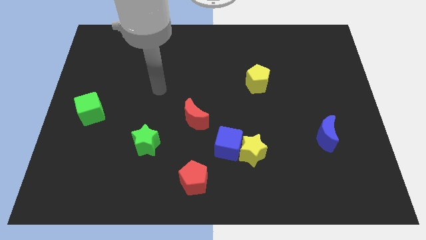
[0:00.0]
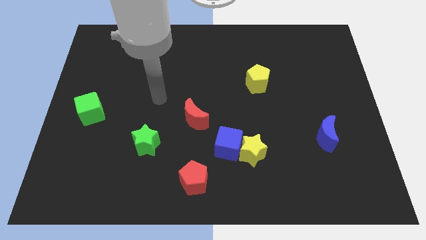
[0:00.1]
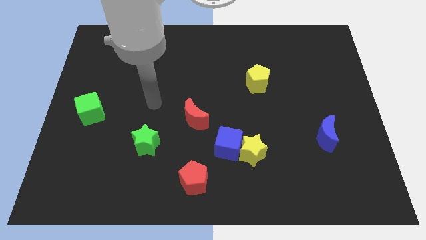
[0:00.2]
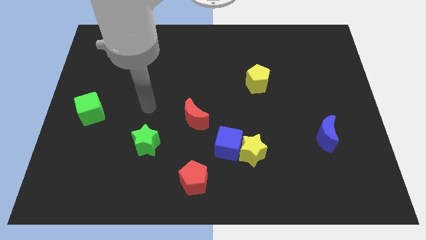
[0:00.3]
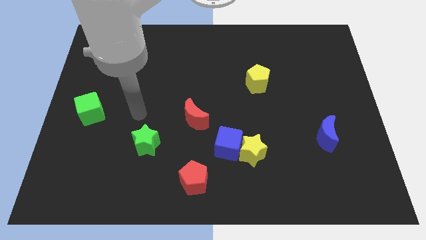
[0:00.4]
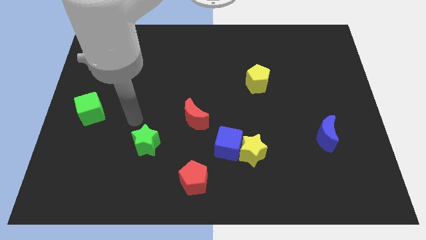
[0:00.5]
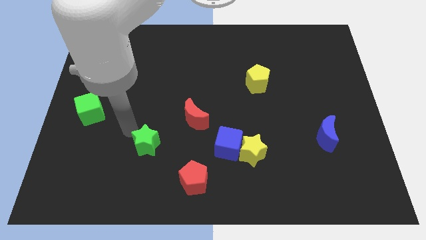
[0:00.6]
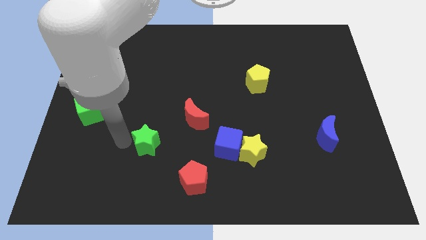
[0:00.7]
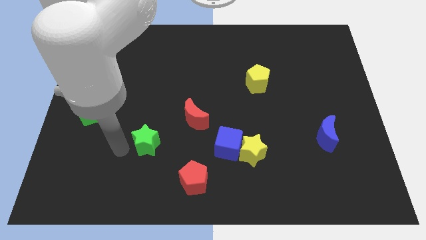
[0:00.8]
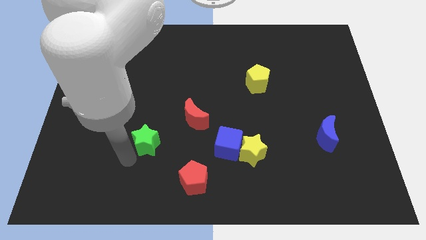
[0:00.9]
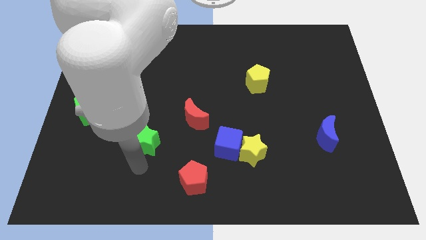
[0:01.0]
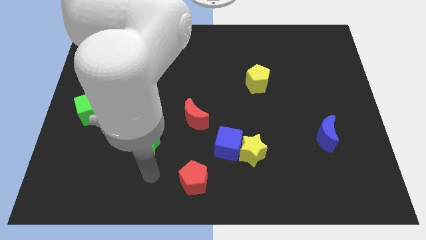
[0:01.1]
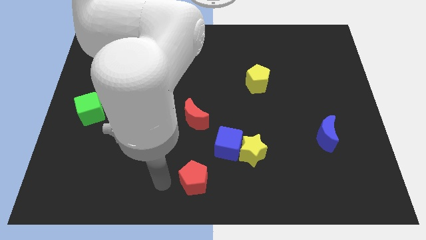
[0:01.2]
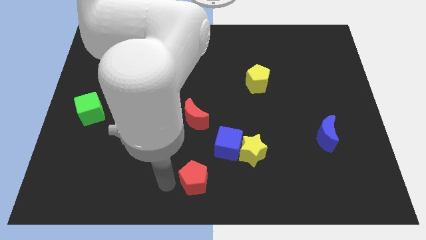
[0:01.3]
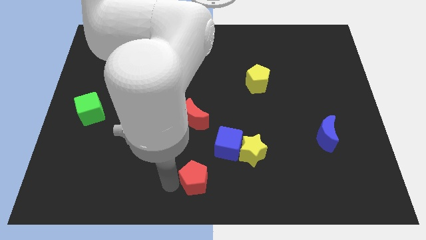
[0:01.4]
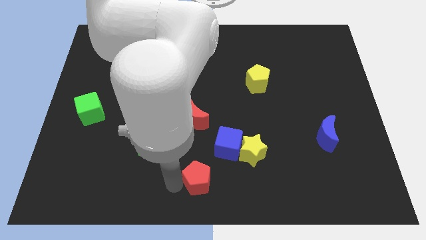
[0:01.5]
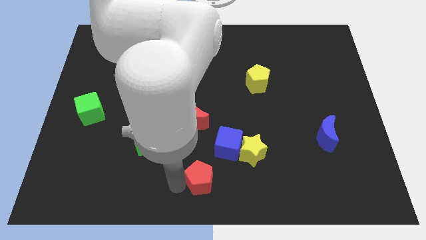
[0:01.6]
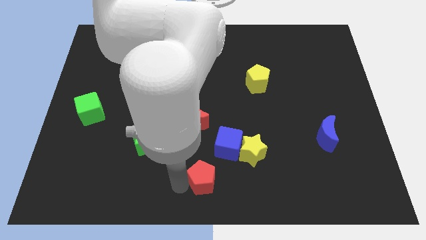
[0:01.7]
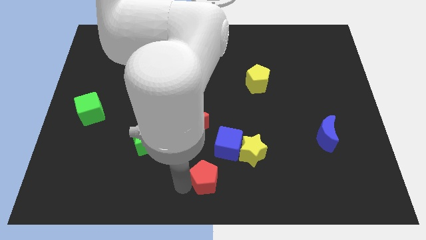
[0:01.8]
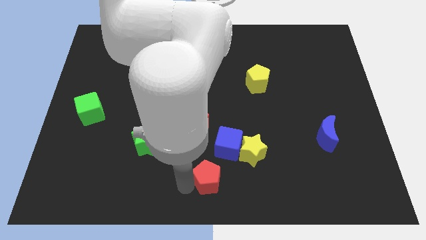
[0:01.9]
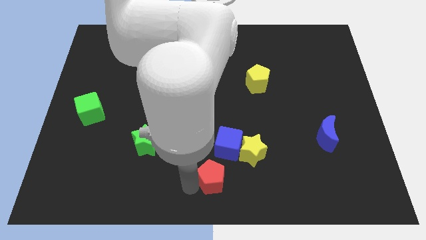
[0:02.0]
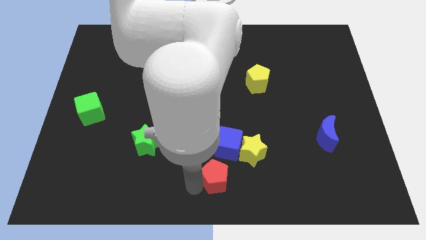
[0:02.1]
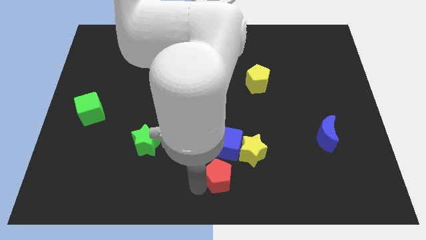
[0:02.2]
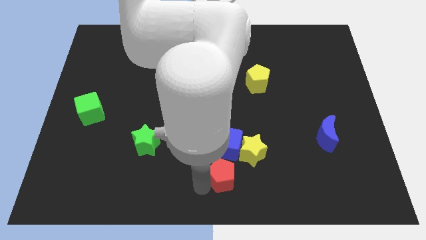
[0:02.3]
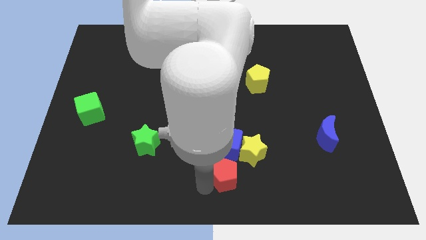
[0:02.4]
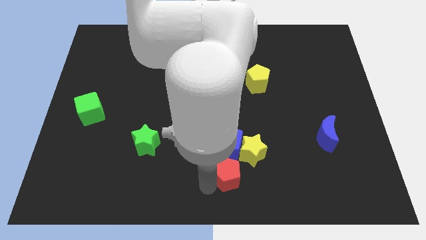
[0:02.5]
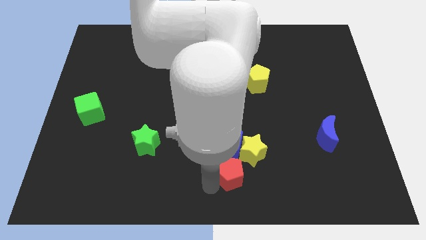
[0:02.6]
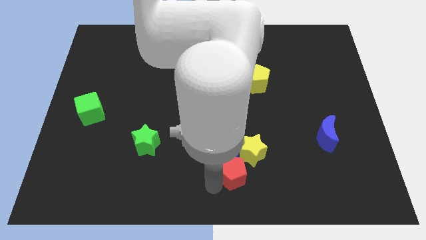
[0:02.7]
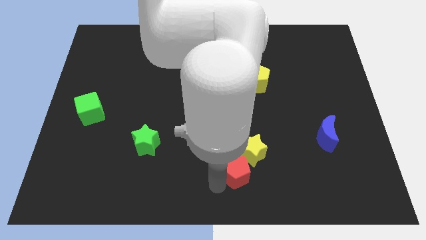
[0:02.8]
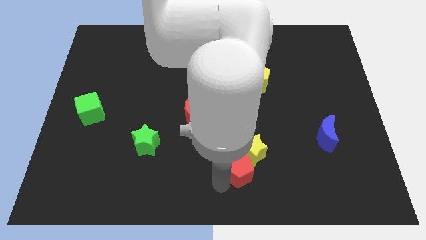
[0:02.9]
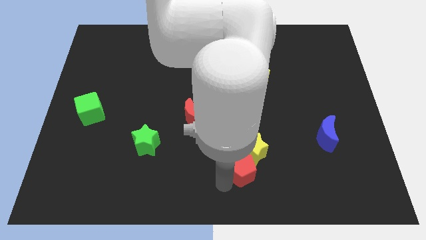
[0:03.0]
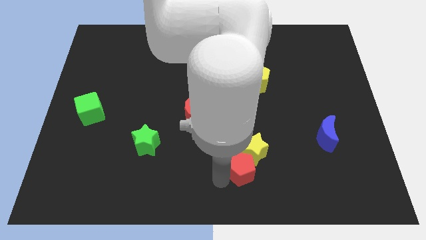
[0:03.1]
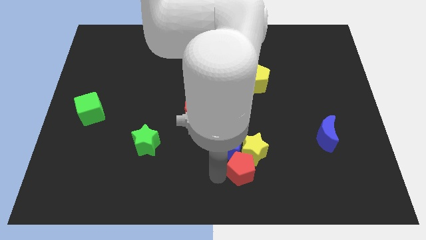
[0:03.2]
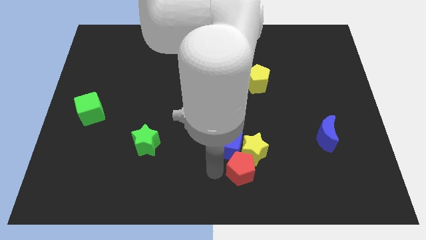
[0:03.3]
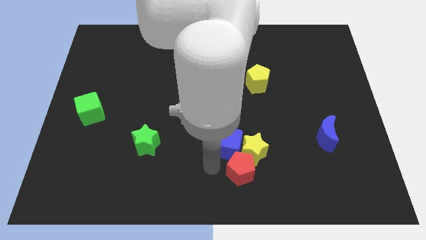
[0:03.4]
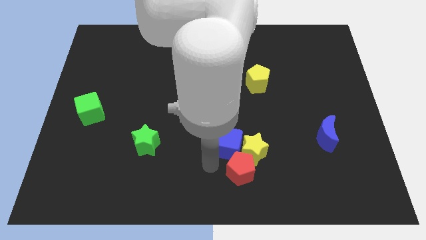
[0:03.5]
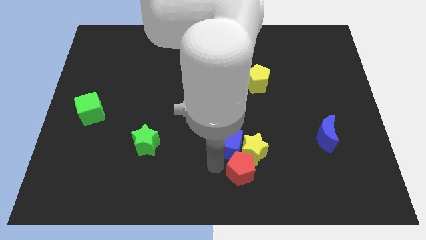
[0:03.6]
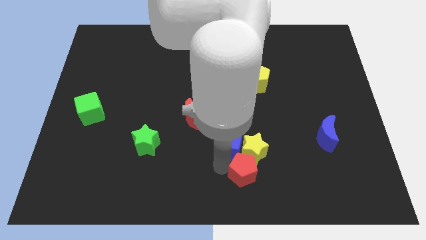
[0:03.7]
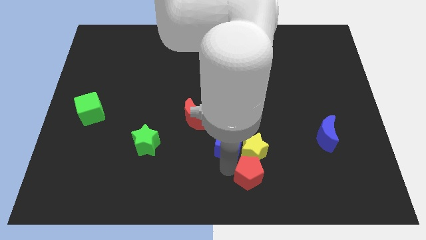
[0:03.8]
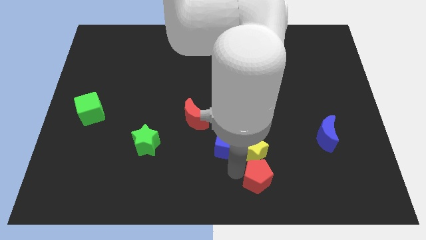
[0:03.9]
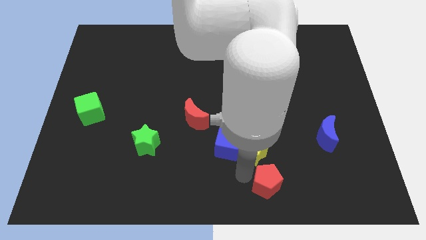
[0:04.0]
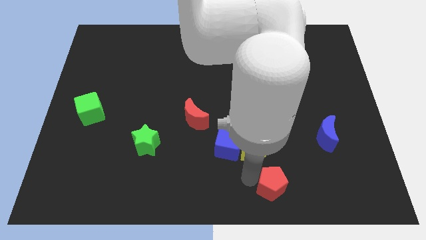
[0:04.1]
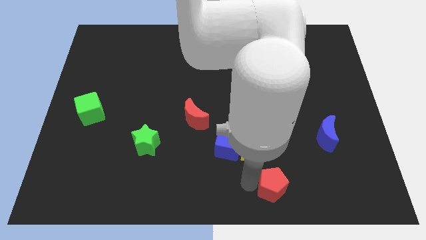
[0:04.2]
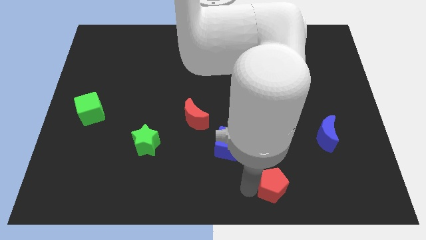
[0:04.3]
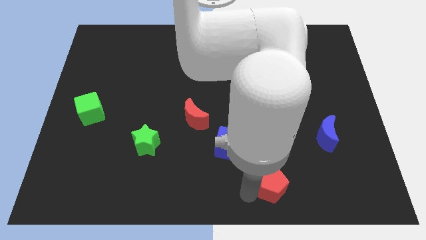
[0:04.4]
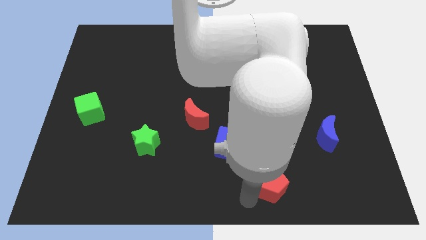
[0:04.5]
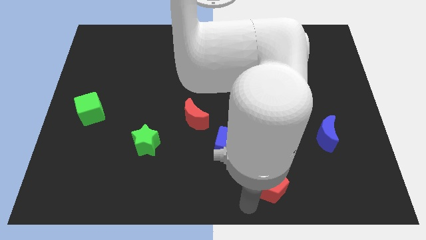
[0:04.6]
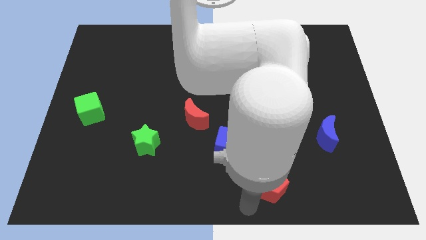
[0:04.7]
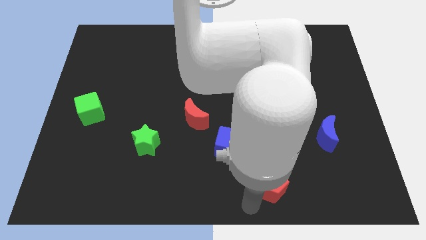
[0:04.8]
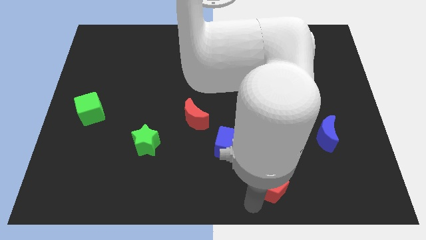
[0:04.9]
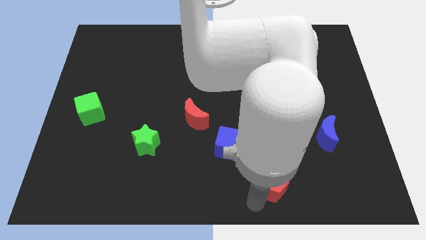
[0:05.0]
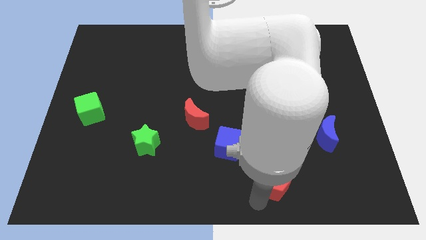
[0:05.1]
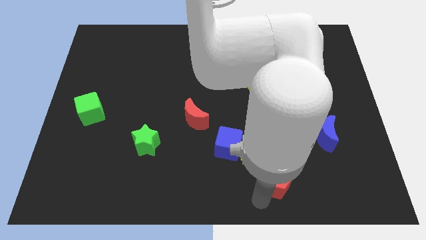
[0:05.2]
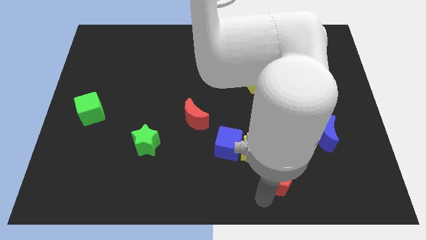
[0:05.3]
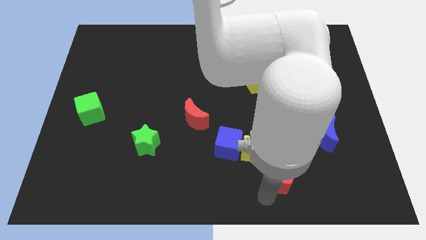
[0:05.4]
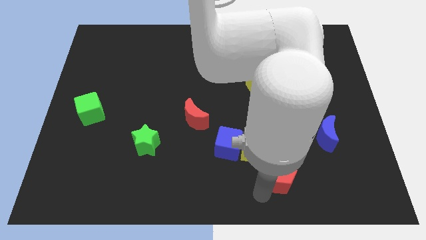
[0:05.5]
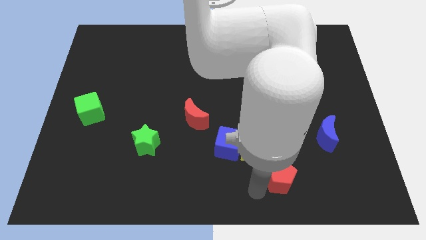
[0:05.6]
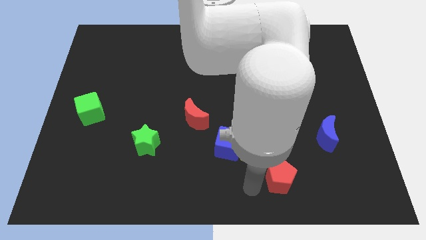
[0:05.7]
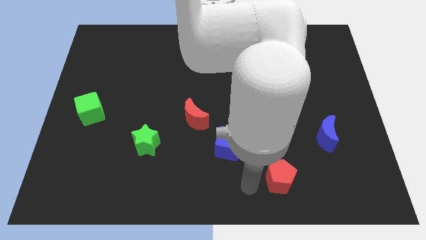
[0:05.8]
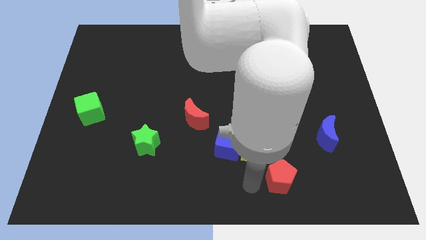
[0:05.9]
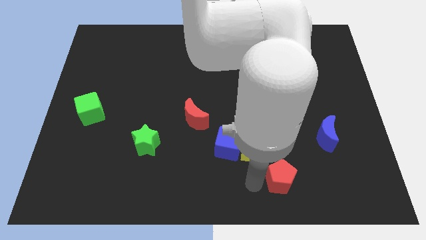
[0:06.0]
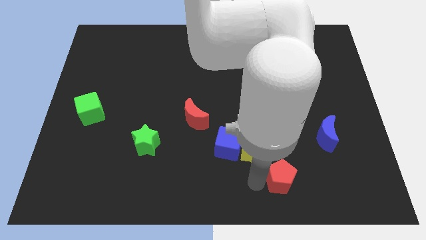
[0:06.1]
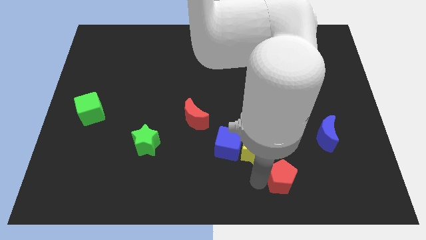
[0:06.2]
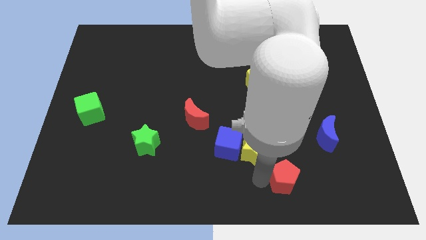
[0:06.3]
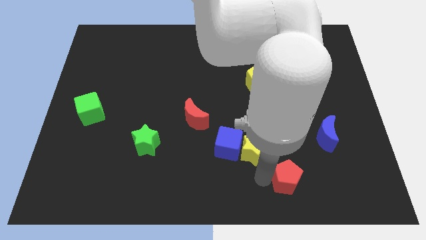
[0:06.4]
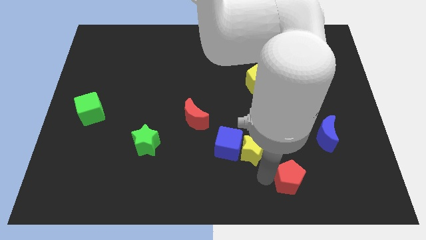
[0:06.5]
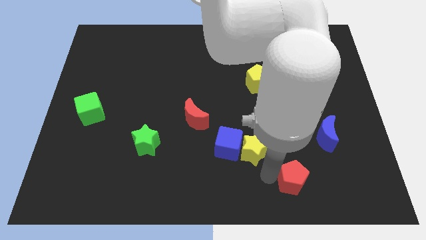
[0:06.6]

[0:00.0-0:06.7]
slide the red pentagon right

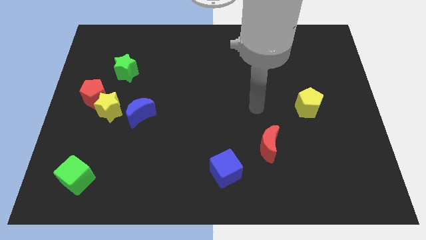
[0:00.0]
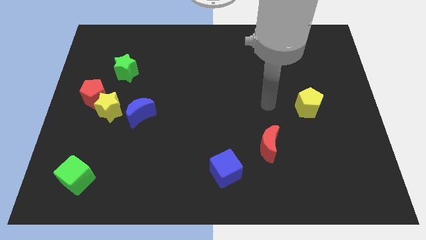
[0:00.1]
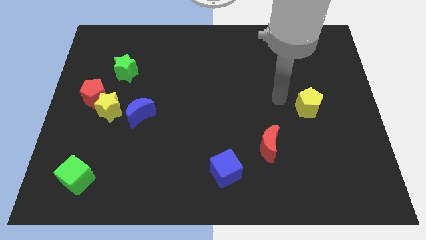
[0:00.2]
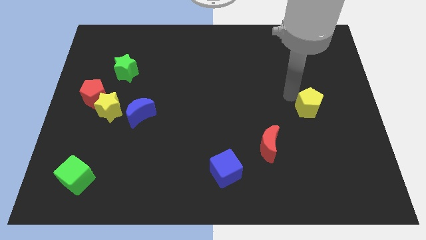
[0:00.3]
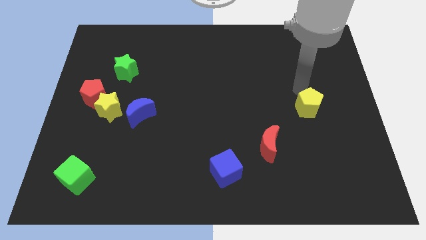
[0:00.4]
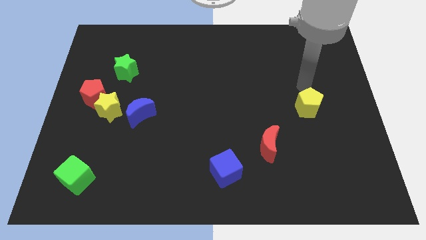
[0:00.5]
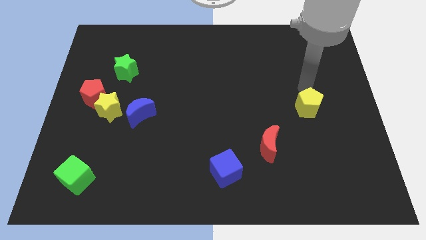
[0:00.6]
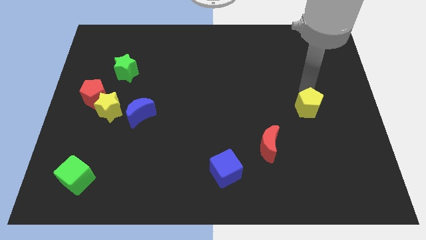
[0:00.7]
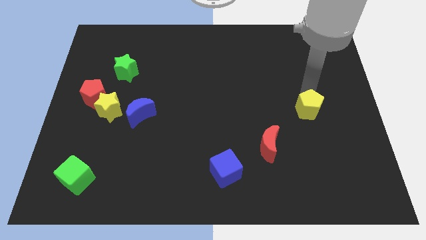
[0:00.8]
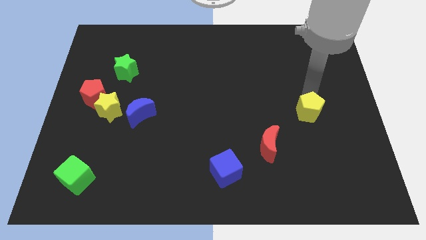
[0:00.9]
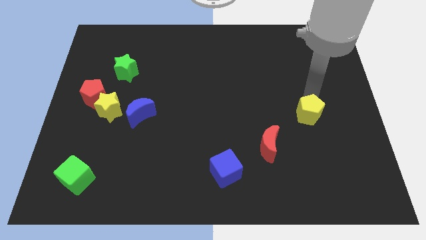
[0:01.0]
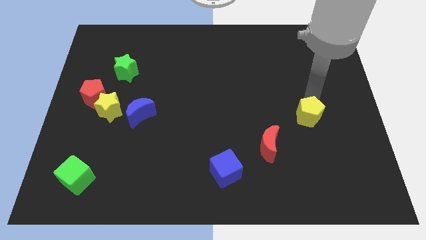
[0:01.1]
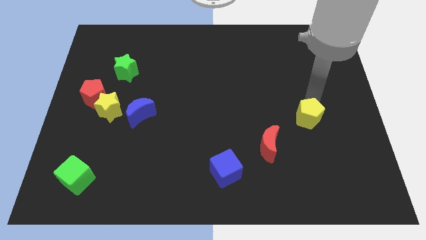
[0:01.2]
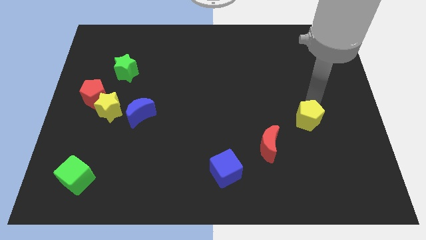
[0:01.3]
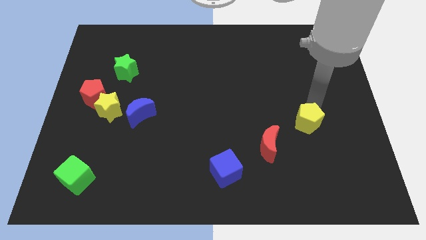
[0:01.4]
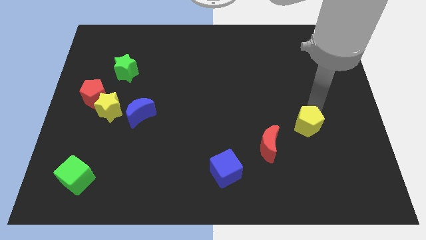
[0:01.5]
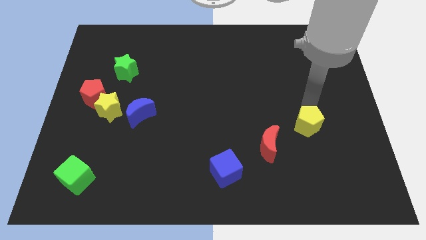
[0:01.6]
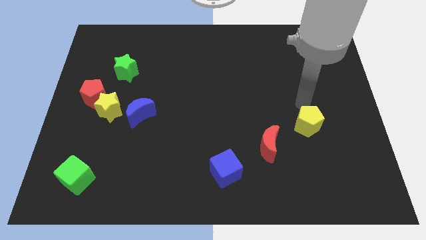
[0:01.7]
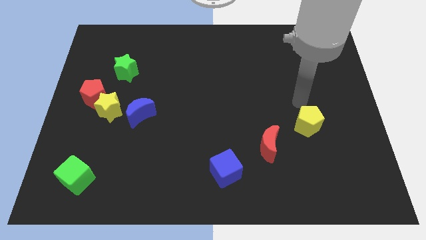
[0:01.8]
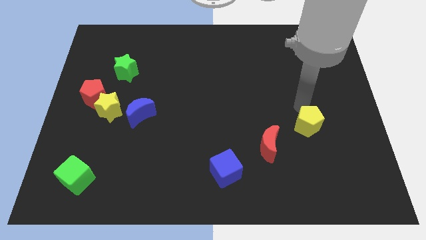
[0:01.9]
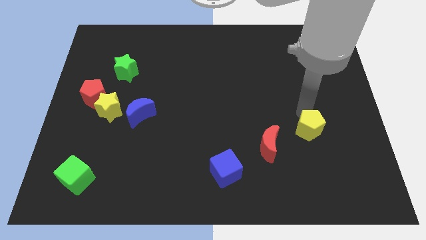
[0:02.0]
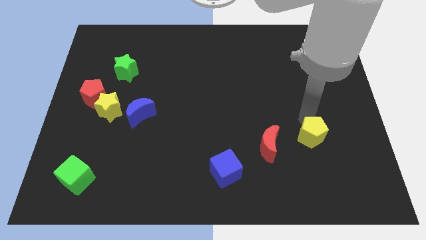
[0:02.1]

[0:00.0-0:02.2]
move the yellow pentagon down a little bit
